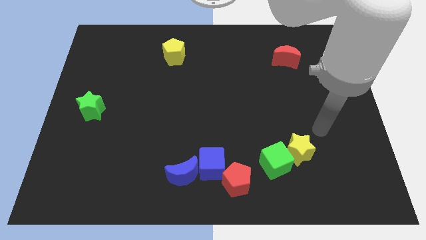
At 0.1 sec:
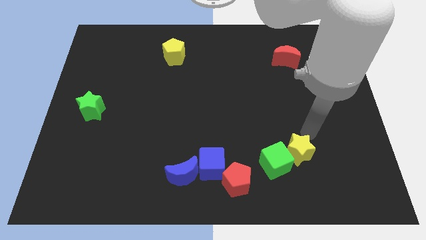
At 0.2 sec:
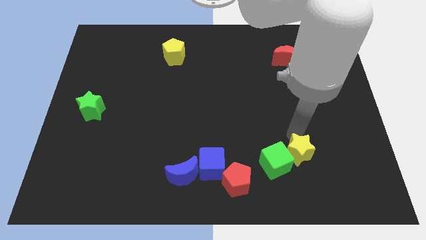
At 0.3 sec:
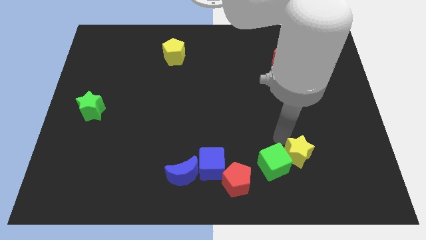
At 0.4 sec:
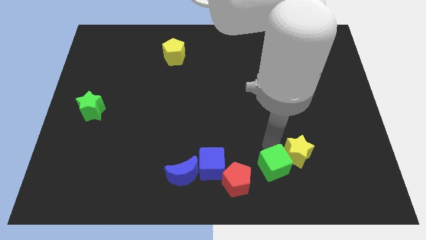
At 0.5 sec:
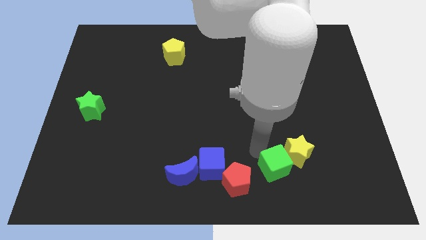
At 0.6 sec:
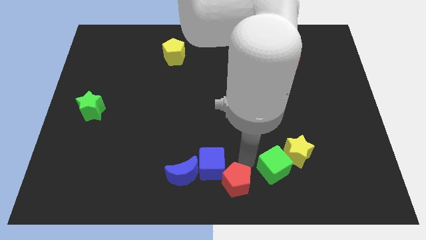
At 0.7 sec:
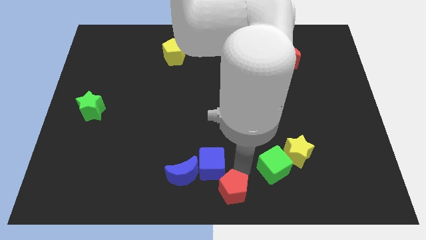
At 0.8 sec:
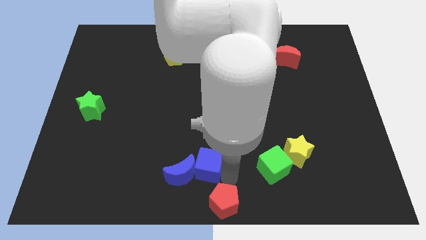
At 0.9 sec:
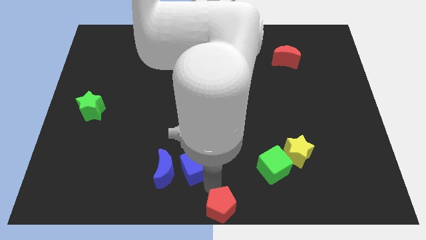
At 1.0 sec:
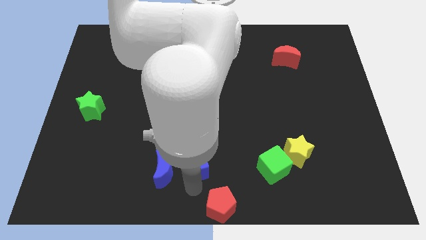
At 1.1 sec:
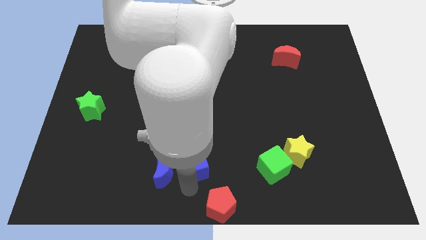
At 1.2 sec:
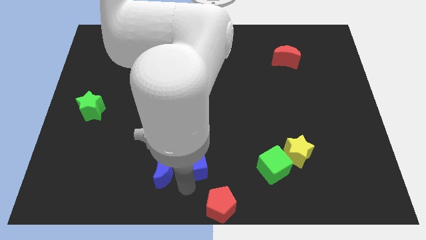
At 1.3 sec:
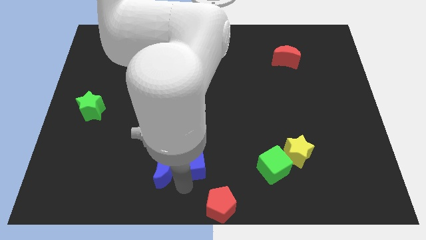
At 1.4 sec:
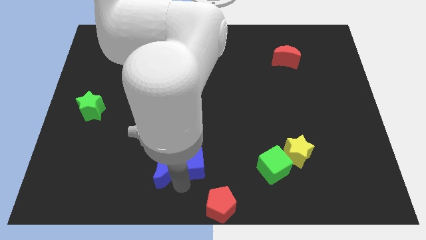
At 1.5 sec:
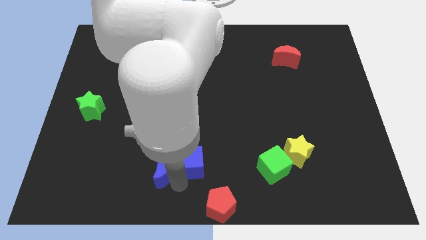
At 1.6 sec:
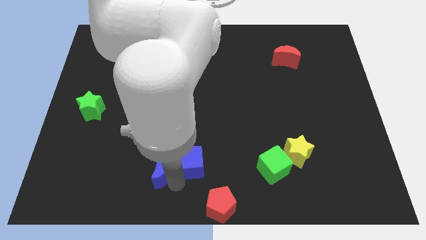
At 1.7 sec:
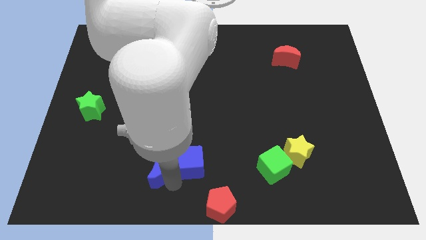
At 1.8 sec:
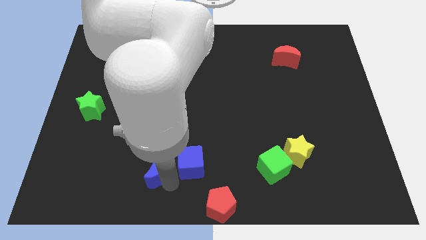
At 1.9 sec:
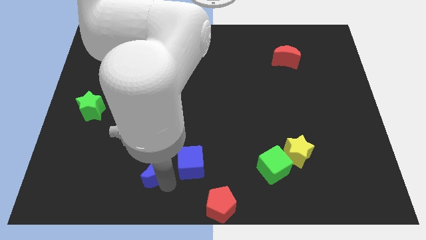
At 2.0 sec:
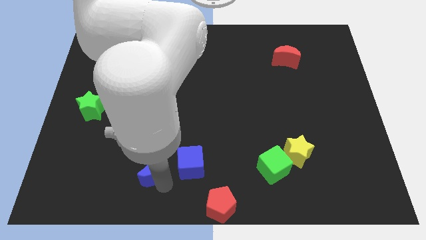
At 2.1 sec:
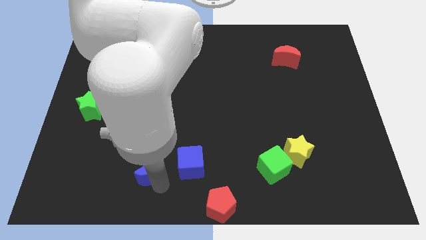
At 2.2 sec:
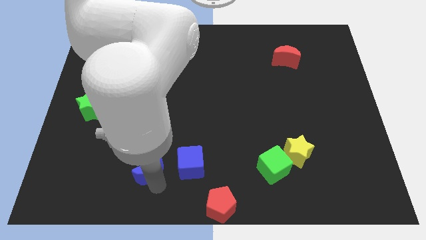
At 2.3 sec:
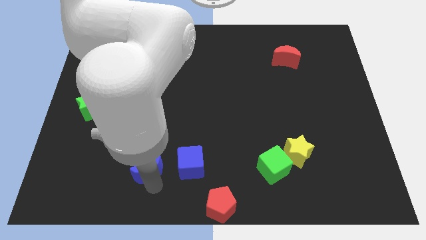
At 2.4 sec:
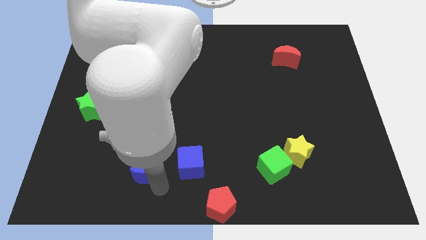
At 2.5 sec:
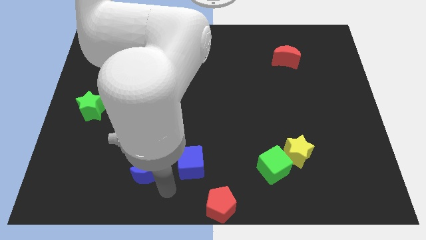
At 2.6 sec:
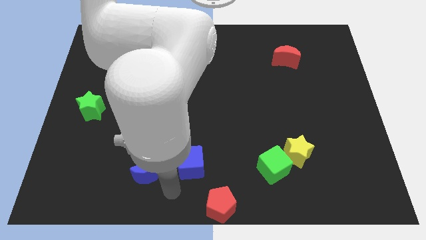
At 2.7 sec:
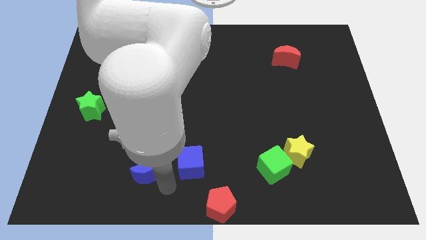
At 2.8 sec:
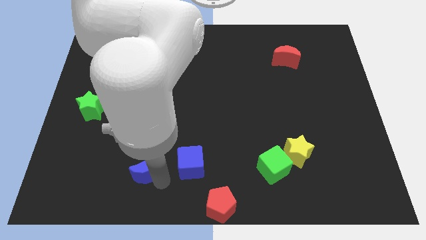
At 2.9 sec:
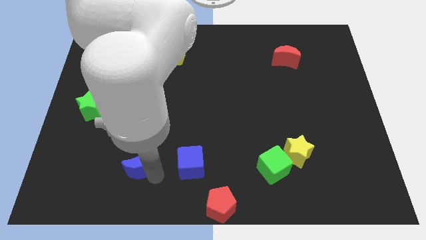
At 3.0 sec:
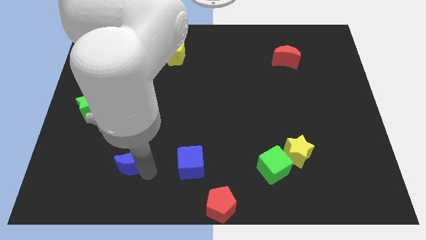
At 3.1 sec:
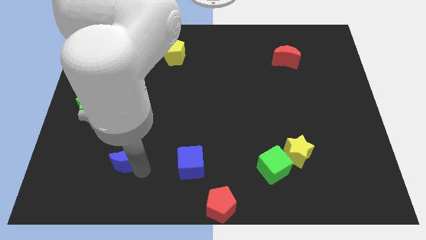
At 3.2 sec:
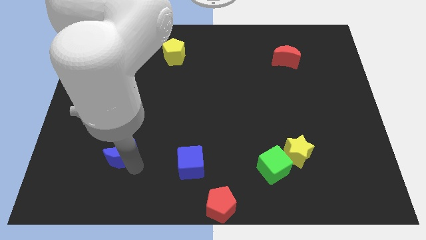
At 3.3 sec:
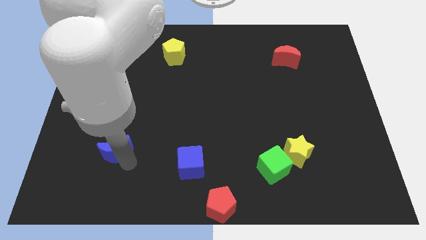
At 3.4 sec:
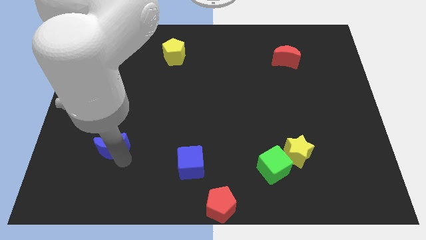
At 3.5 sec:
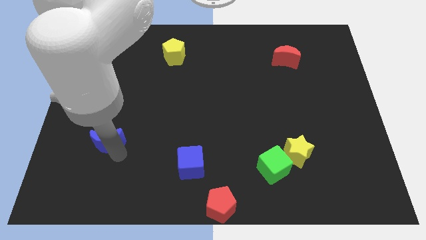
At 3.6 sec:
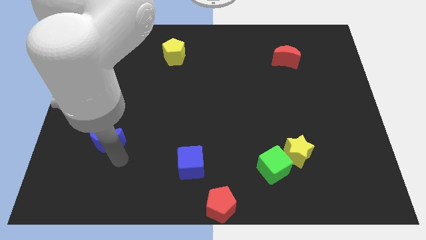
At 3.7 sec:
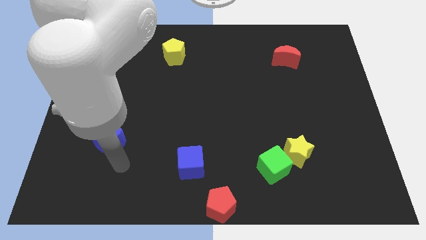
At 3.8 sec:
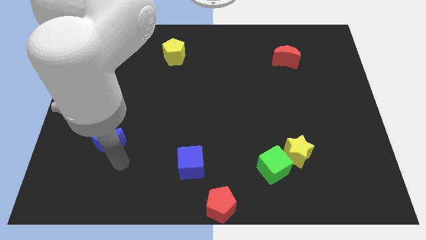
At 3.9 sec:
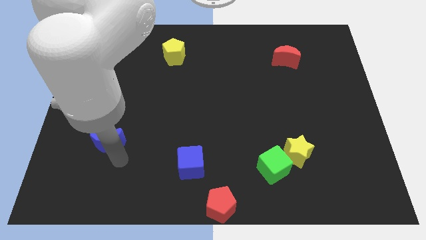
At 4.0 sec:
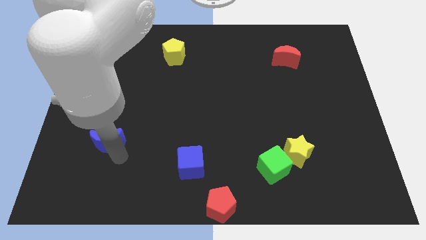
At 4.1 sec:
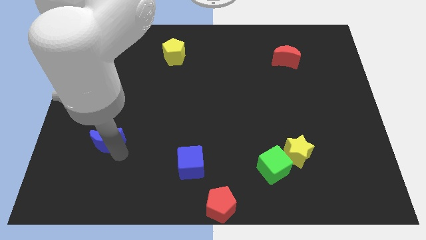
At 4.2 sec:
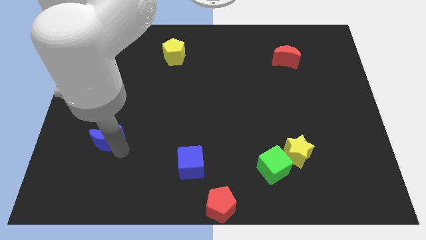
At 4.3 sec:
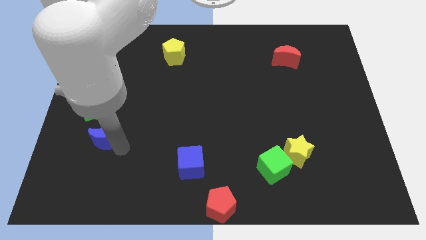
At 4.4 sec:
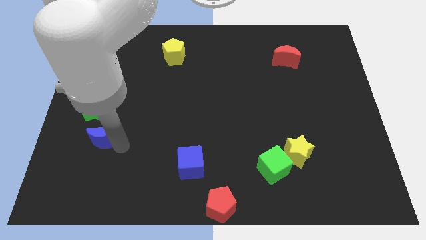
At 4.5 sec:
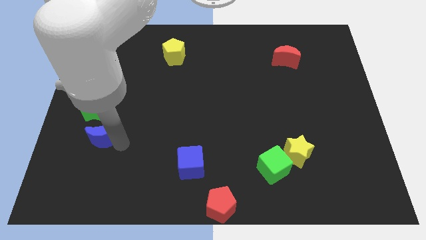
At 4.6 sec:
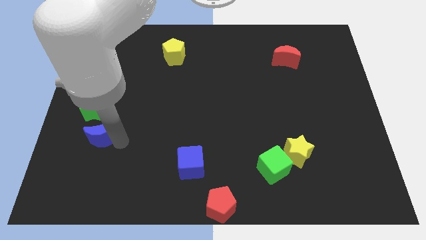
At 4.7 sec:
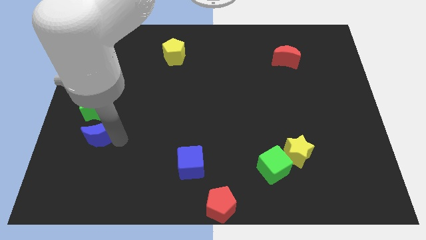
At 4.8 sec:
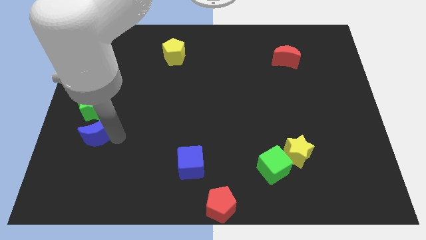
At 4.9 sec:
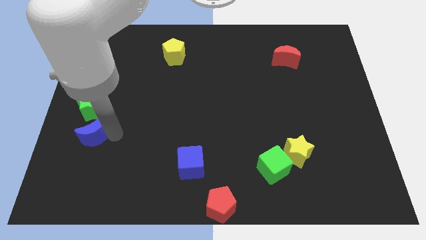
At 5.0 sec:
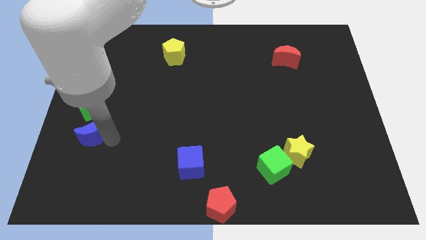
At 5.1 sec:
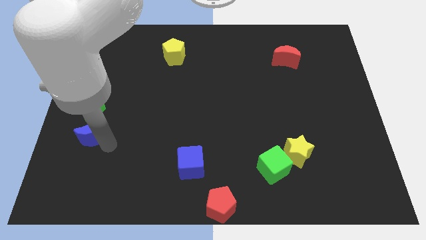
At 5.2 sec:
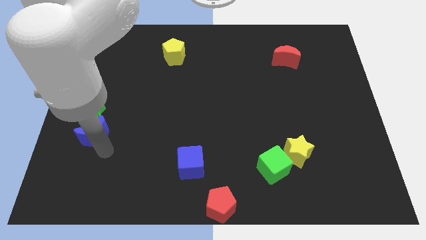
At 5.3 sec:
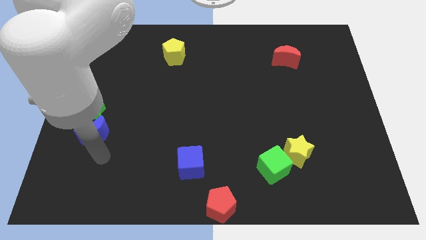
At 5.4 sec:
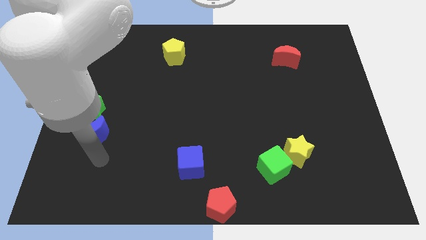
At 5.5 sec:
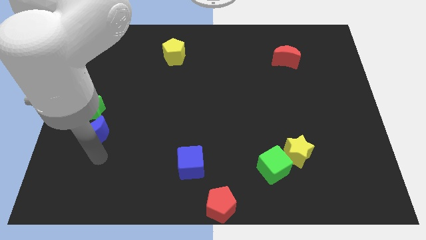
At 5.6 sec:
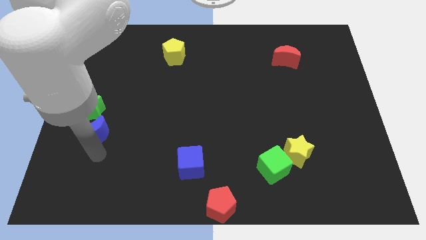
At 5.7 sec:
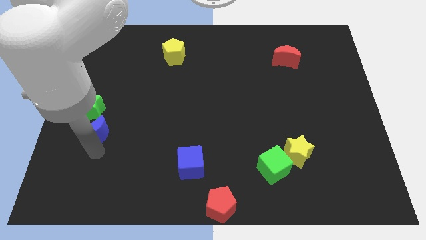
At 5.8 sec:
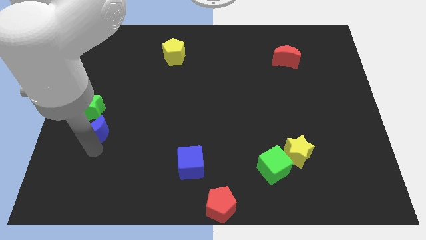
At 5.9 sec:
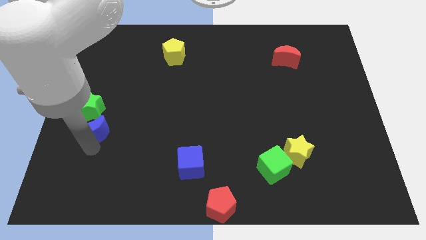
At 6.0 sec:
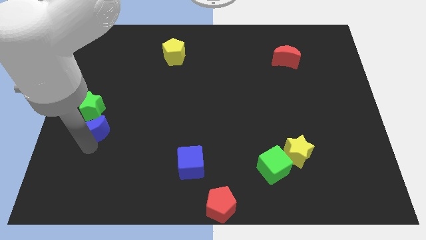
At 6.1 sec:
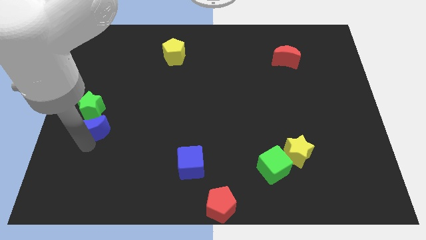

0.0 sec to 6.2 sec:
slide the blue moon close to the green star

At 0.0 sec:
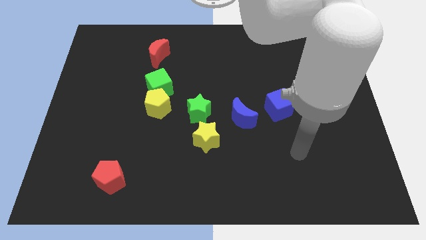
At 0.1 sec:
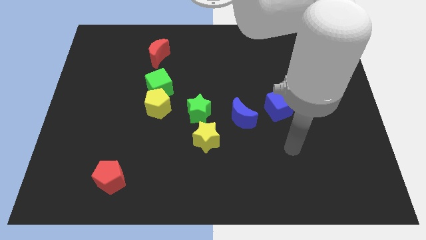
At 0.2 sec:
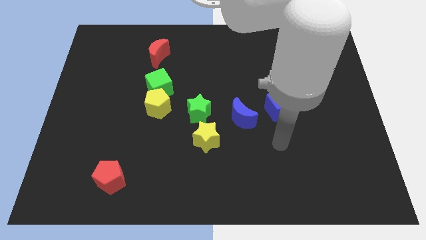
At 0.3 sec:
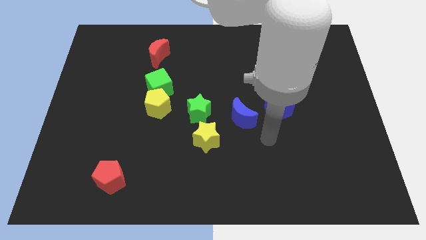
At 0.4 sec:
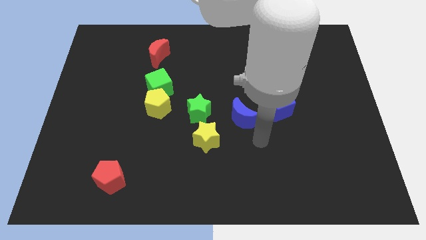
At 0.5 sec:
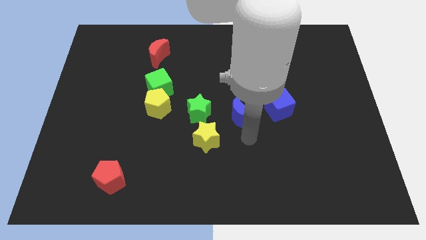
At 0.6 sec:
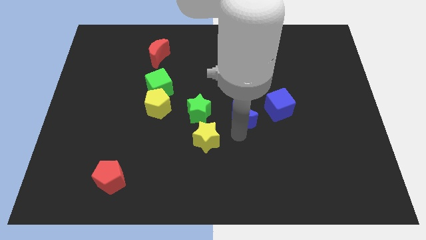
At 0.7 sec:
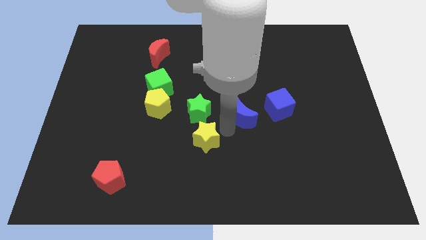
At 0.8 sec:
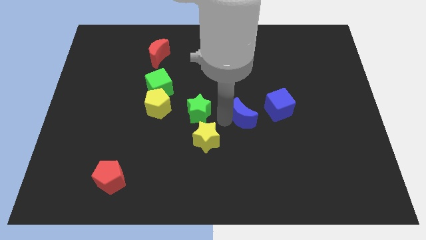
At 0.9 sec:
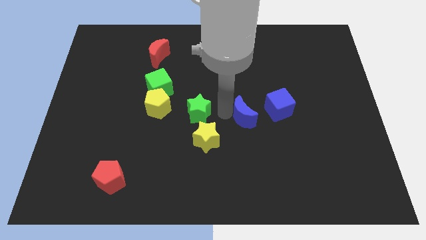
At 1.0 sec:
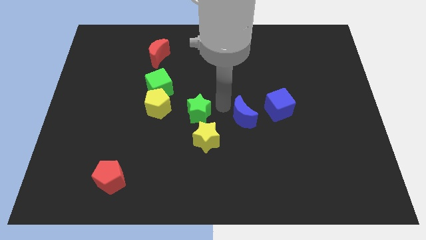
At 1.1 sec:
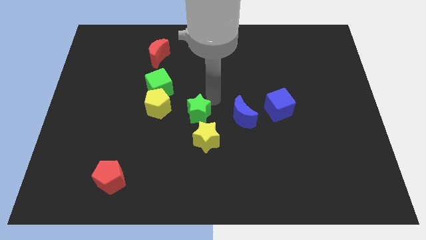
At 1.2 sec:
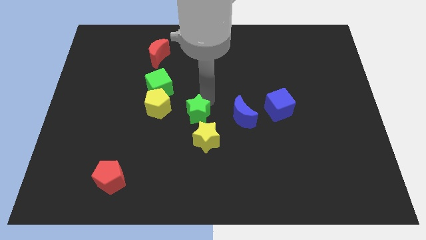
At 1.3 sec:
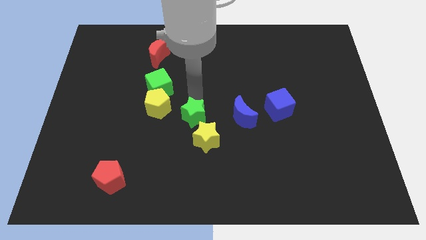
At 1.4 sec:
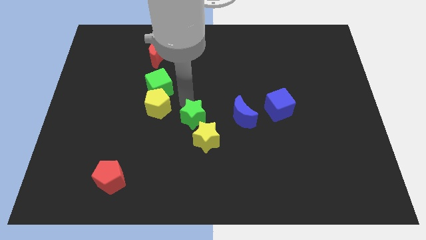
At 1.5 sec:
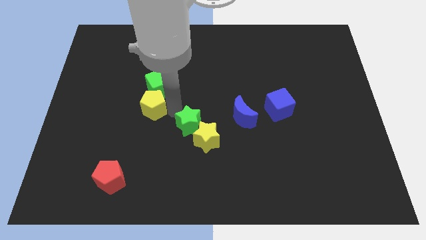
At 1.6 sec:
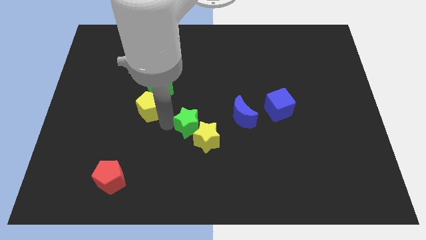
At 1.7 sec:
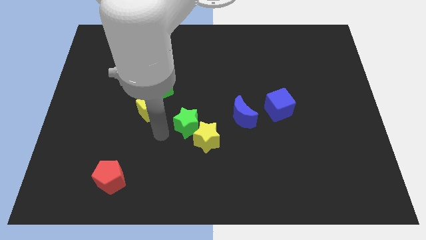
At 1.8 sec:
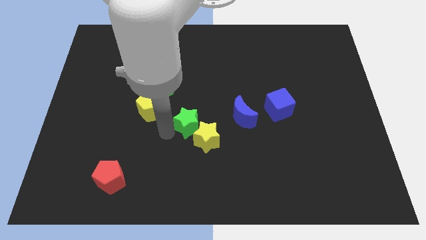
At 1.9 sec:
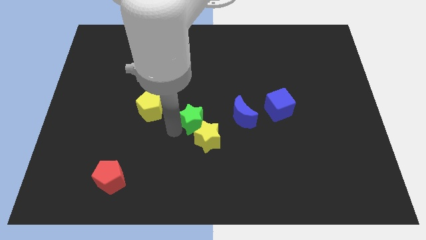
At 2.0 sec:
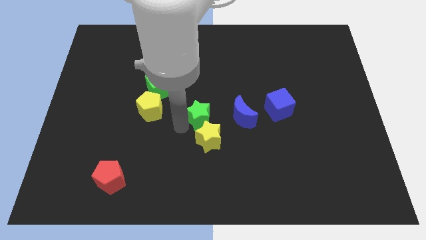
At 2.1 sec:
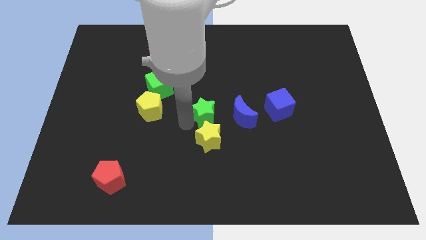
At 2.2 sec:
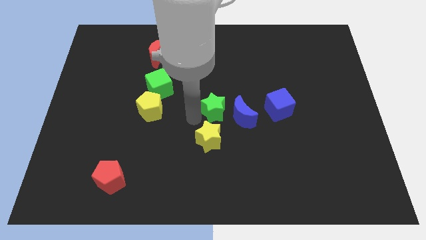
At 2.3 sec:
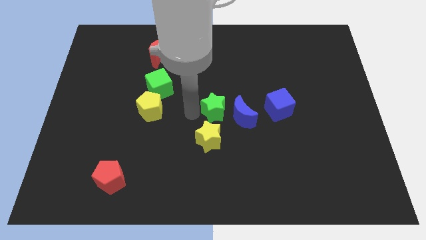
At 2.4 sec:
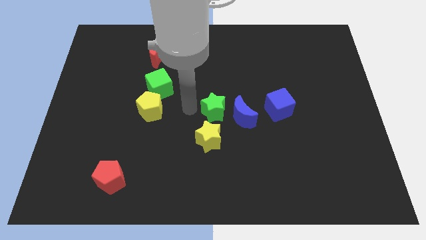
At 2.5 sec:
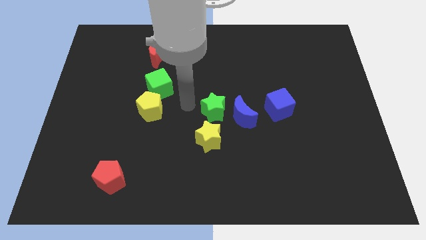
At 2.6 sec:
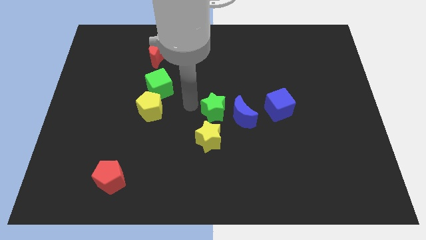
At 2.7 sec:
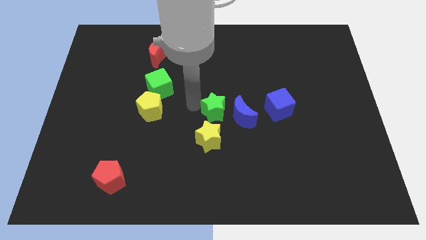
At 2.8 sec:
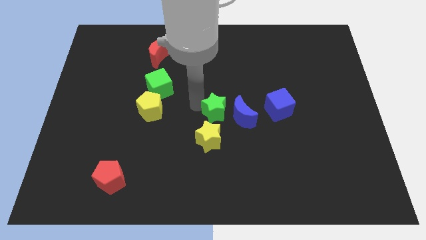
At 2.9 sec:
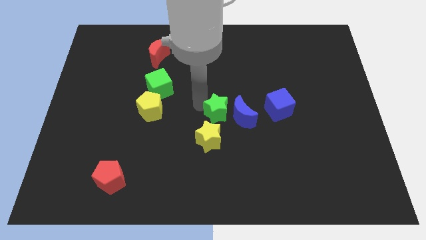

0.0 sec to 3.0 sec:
push the green star towards the blue moon
